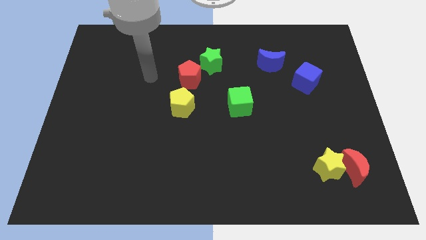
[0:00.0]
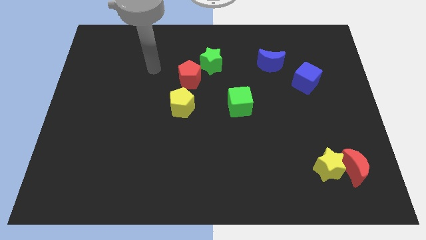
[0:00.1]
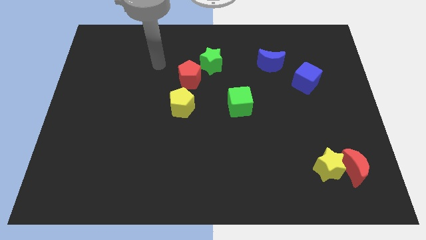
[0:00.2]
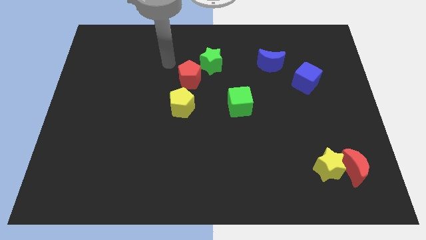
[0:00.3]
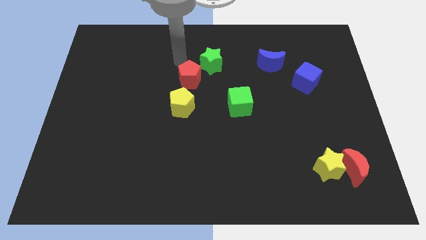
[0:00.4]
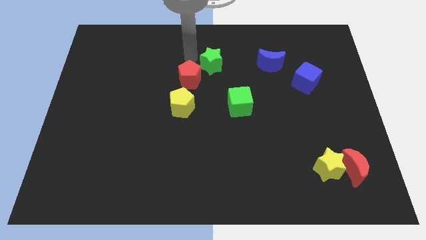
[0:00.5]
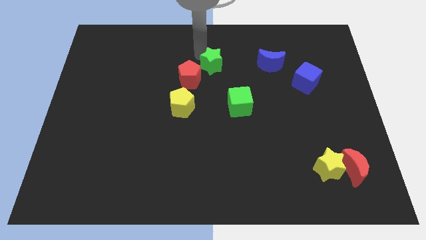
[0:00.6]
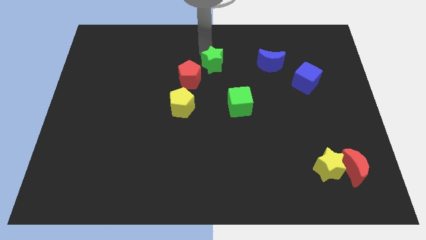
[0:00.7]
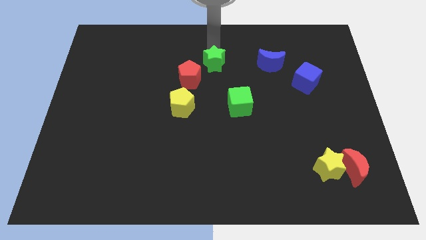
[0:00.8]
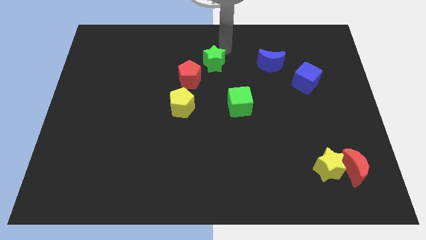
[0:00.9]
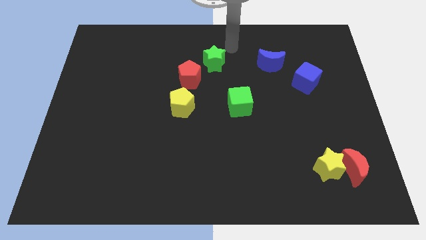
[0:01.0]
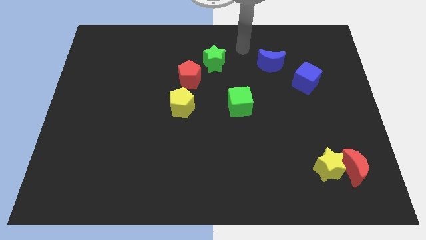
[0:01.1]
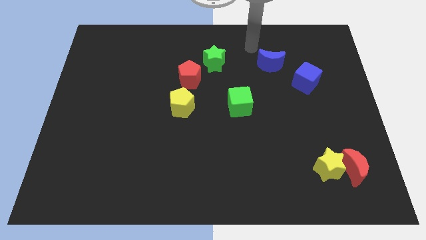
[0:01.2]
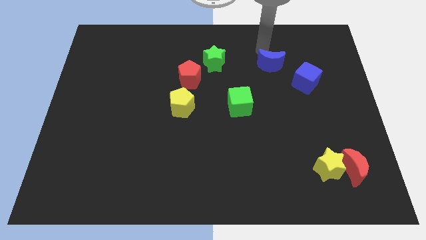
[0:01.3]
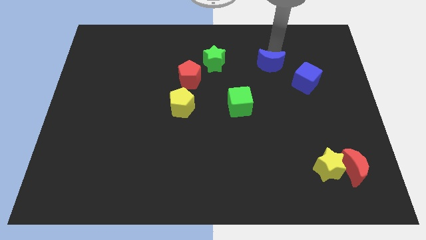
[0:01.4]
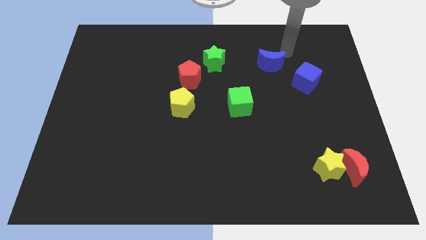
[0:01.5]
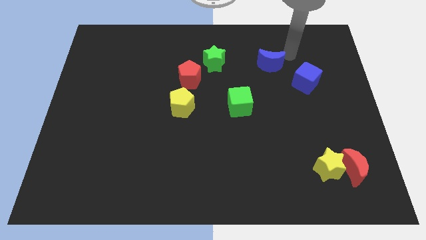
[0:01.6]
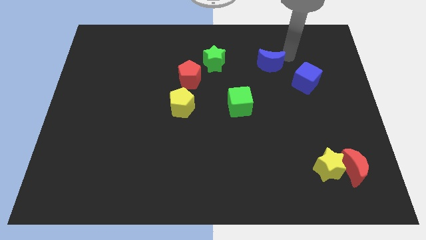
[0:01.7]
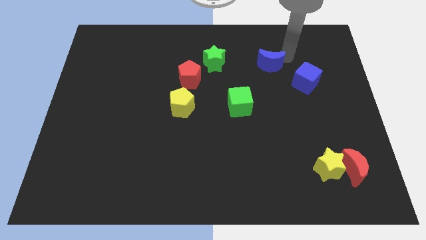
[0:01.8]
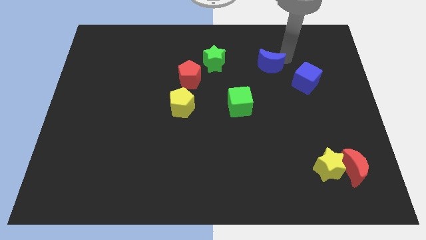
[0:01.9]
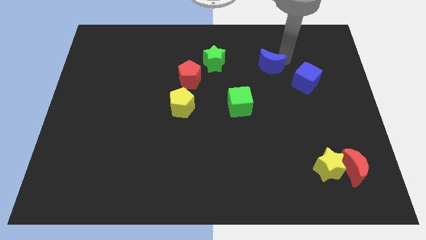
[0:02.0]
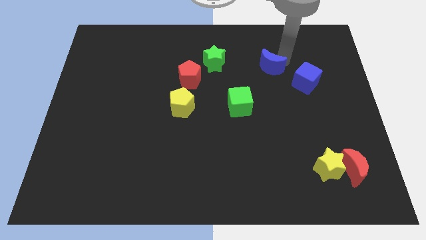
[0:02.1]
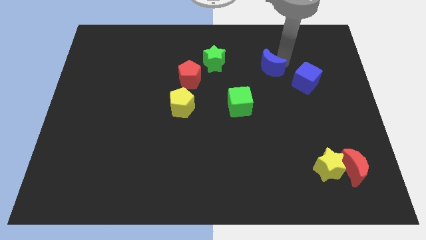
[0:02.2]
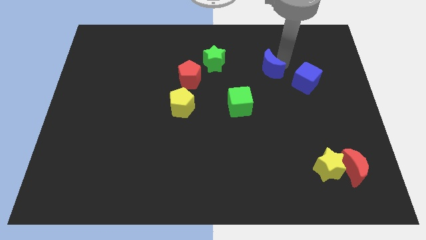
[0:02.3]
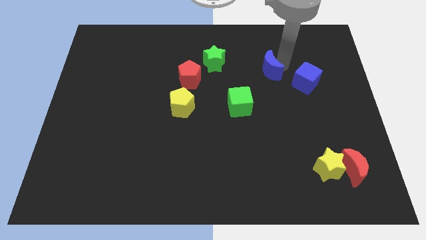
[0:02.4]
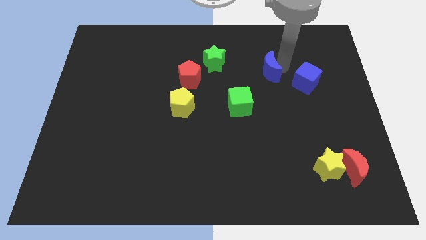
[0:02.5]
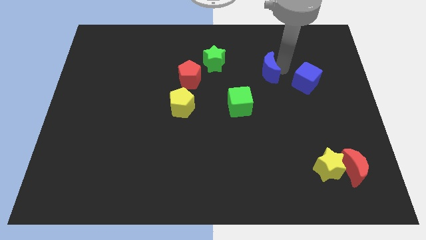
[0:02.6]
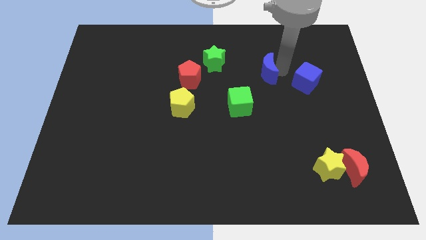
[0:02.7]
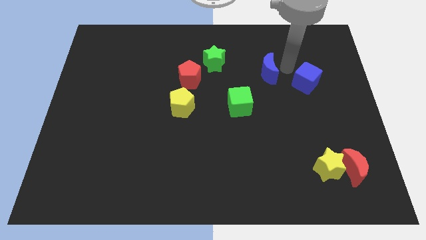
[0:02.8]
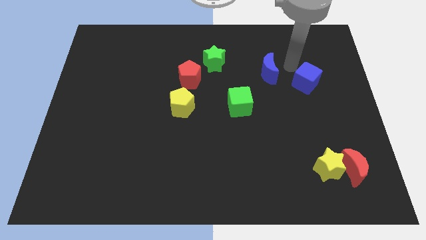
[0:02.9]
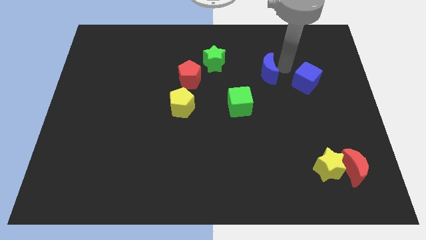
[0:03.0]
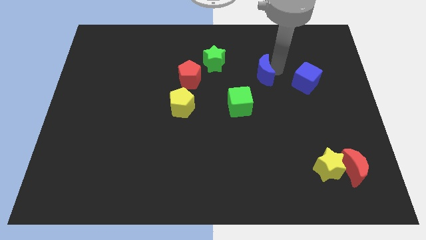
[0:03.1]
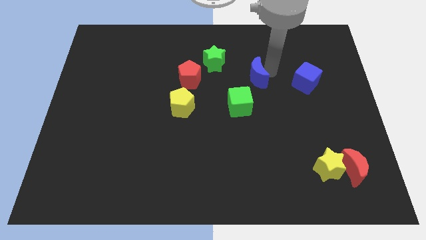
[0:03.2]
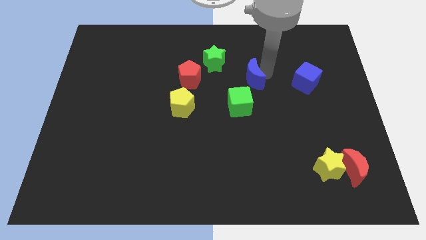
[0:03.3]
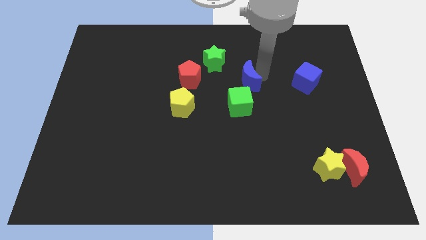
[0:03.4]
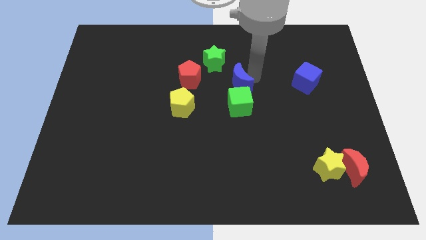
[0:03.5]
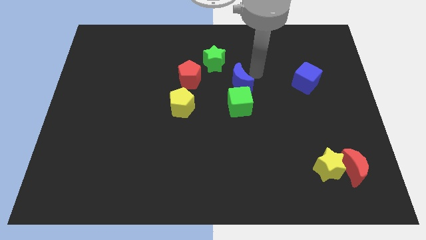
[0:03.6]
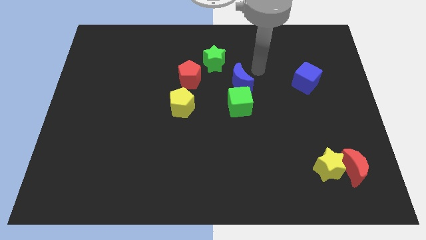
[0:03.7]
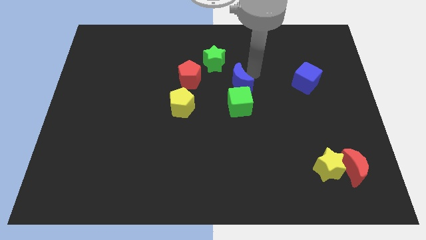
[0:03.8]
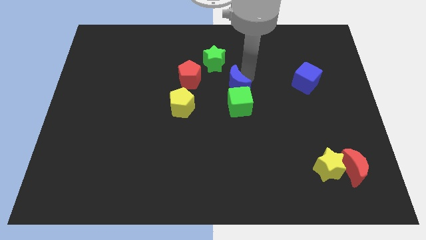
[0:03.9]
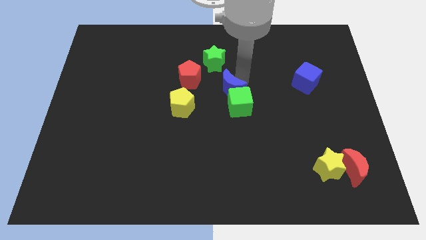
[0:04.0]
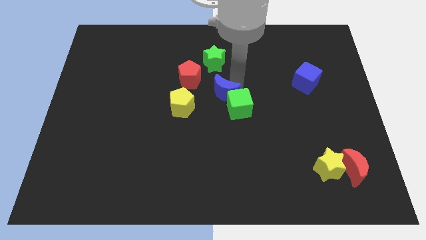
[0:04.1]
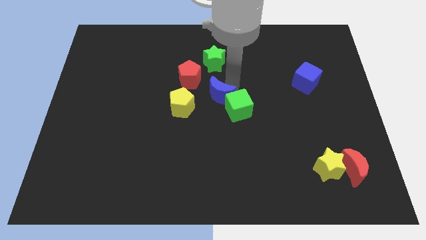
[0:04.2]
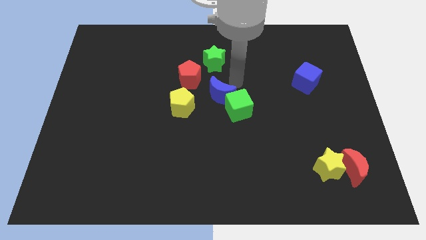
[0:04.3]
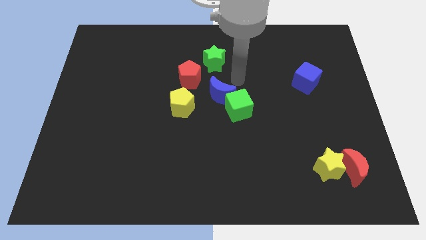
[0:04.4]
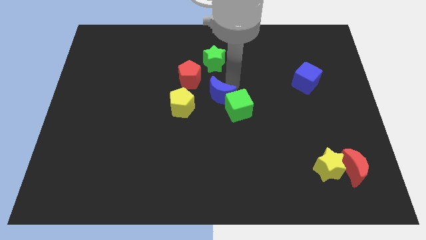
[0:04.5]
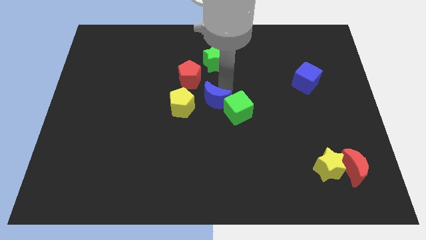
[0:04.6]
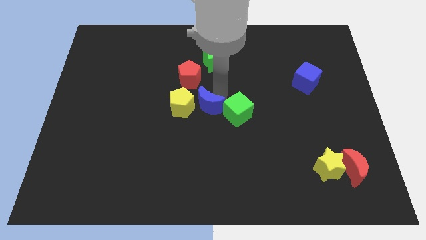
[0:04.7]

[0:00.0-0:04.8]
move the blue moon diagonally down and to the left

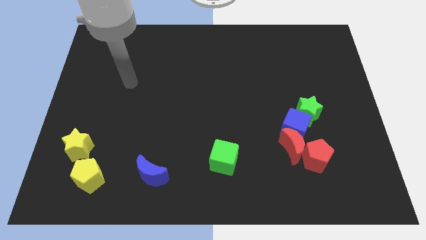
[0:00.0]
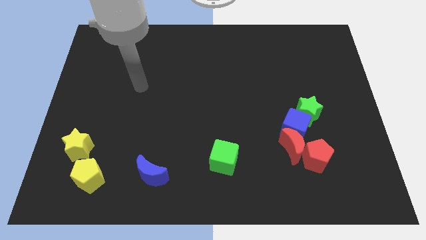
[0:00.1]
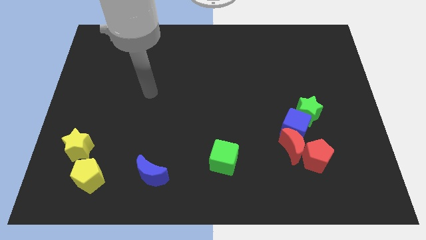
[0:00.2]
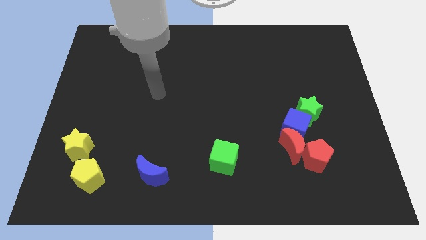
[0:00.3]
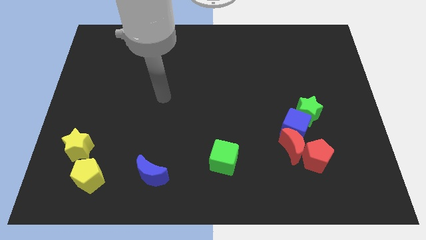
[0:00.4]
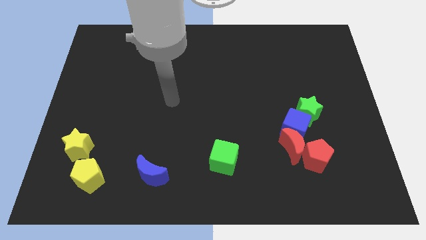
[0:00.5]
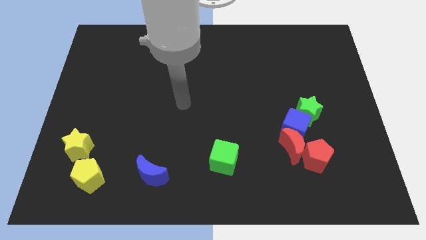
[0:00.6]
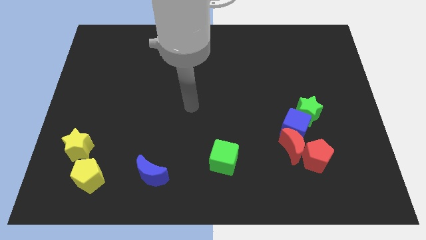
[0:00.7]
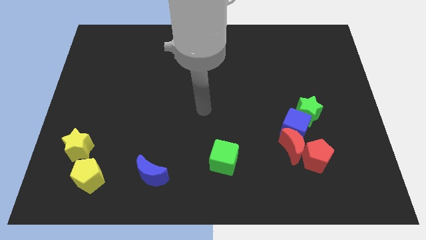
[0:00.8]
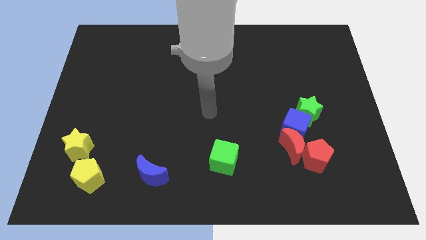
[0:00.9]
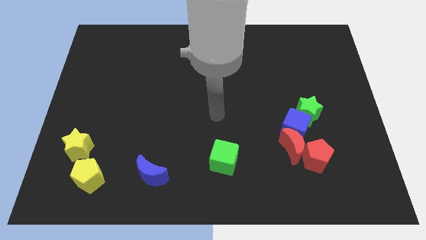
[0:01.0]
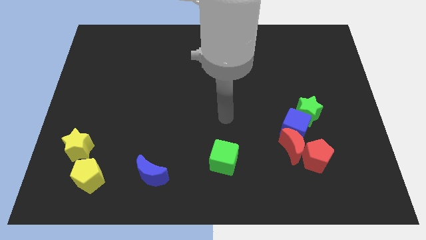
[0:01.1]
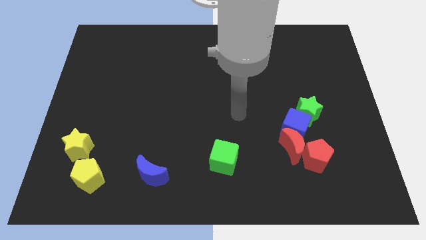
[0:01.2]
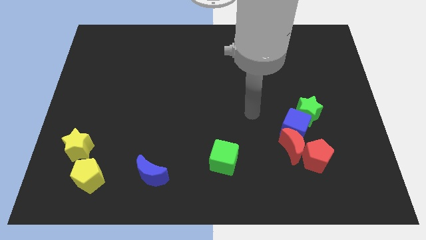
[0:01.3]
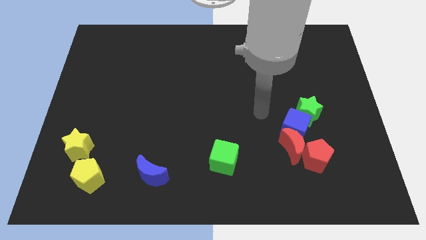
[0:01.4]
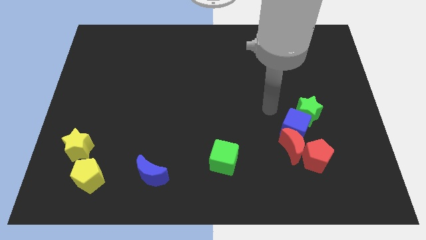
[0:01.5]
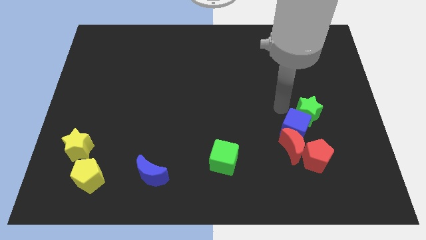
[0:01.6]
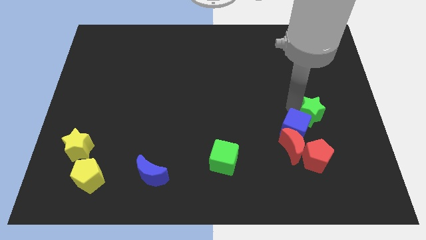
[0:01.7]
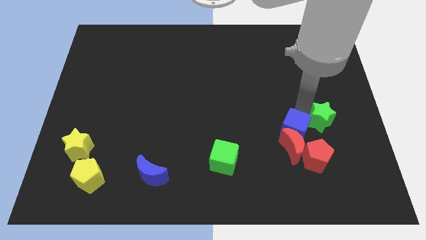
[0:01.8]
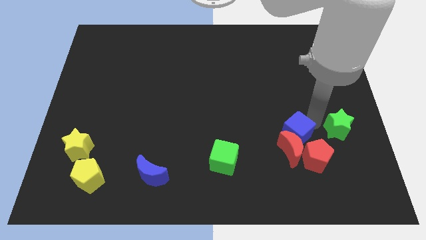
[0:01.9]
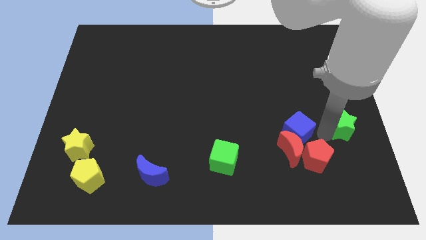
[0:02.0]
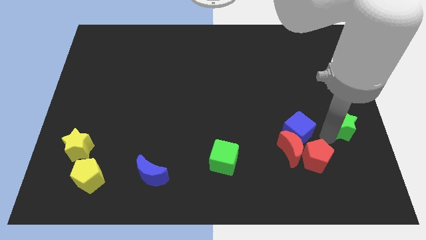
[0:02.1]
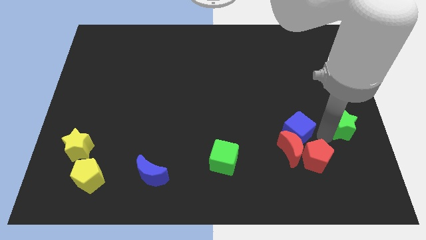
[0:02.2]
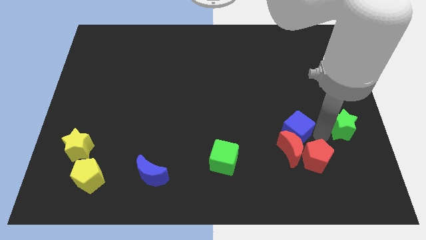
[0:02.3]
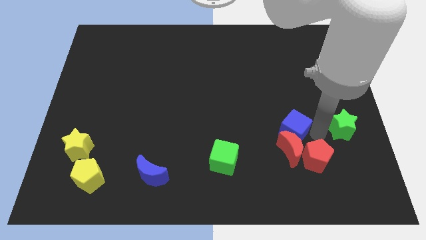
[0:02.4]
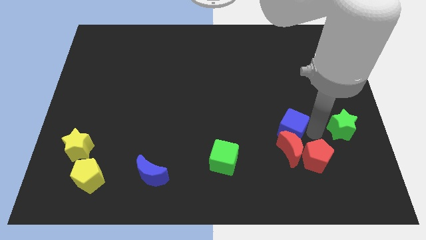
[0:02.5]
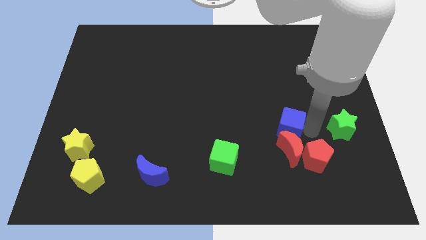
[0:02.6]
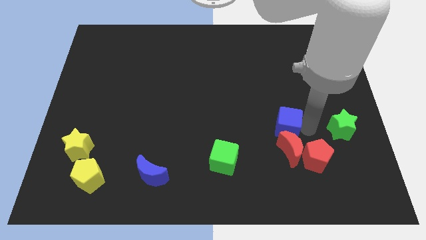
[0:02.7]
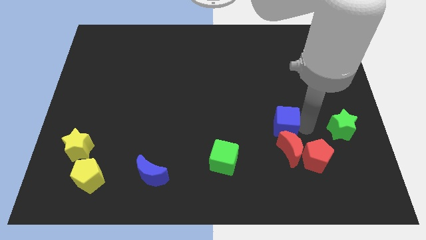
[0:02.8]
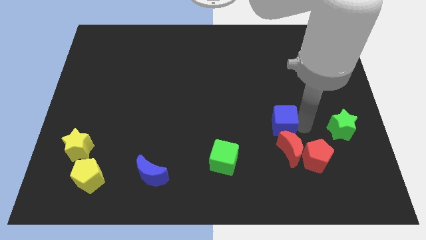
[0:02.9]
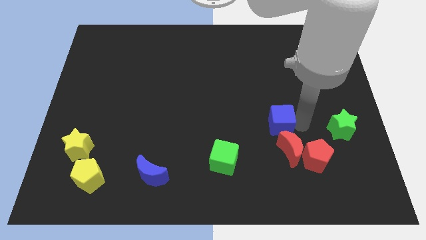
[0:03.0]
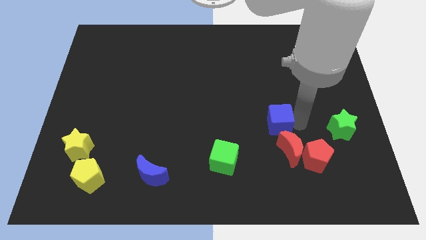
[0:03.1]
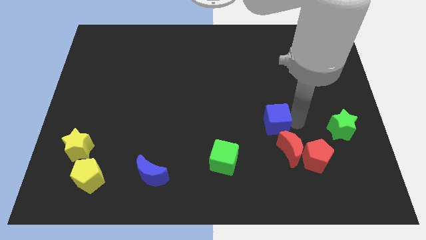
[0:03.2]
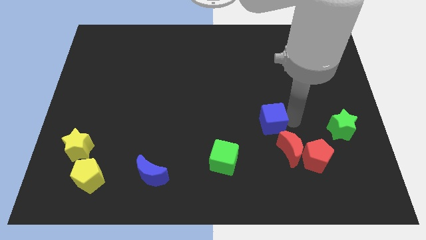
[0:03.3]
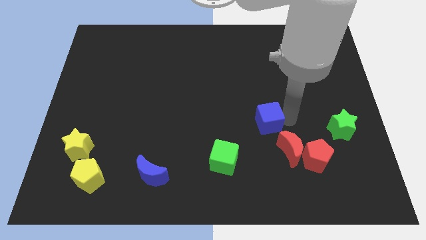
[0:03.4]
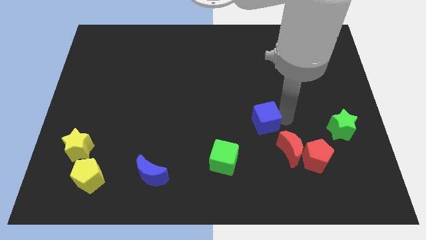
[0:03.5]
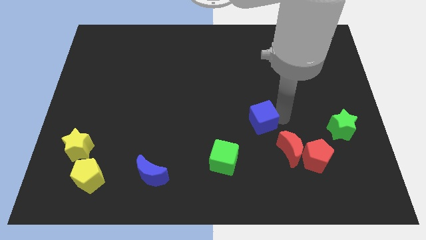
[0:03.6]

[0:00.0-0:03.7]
slightly slide the blue cube to the left
